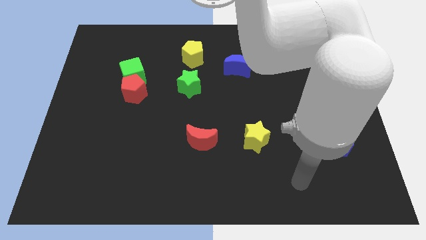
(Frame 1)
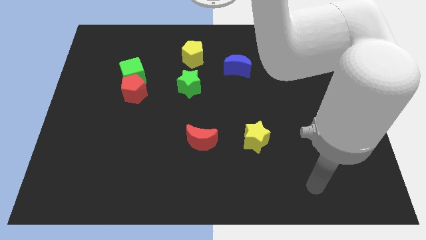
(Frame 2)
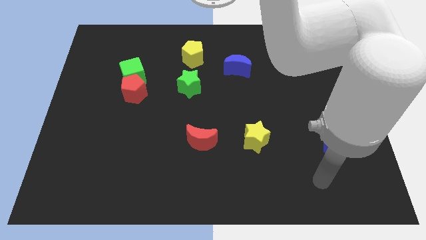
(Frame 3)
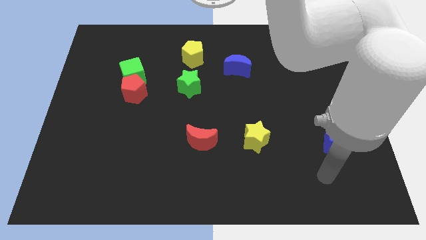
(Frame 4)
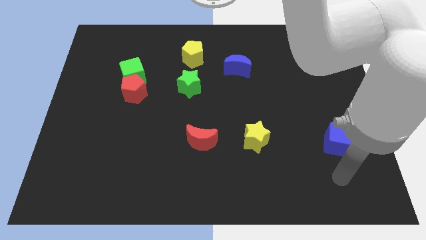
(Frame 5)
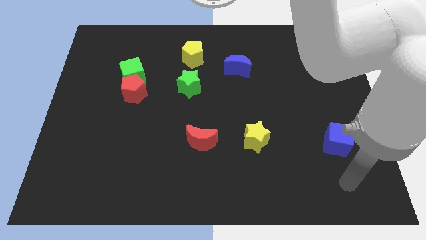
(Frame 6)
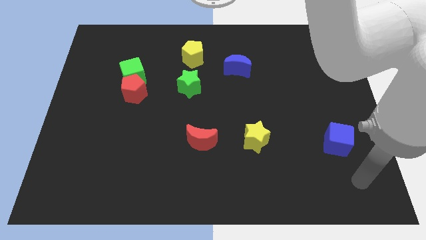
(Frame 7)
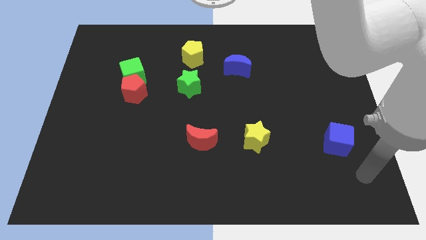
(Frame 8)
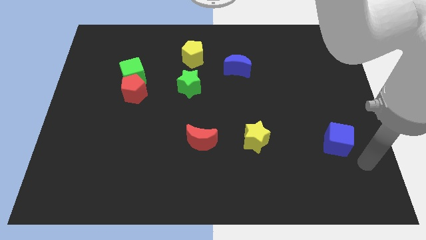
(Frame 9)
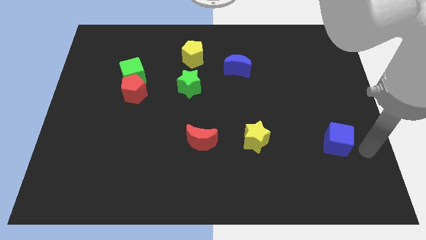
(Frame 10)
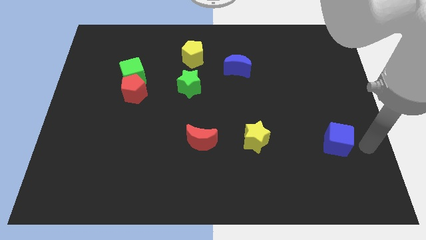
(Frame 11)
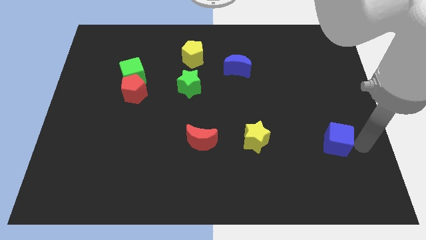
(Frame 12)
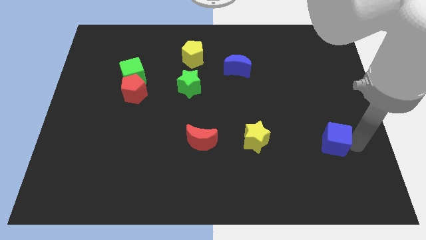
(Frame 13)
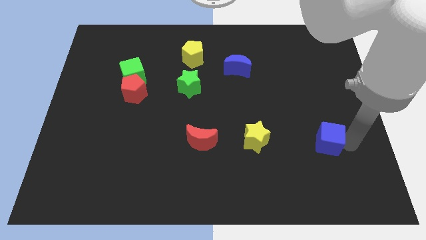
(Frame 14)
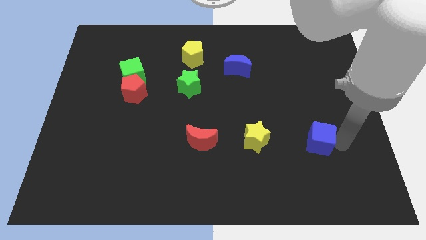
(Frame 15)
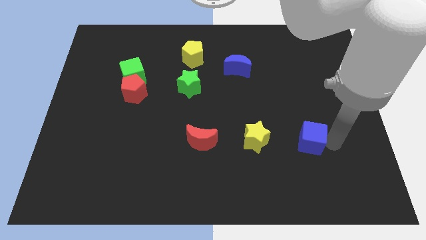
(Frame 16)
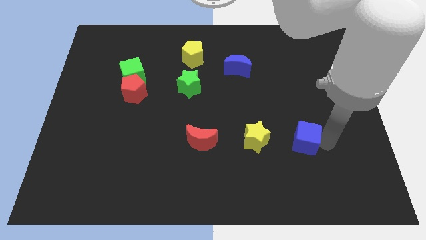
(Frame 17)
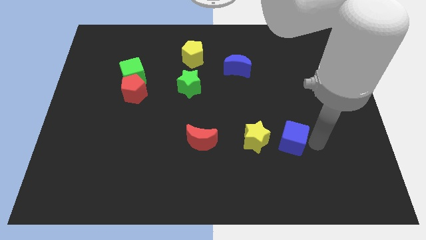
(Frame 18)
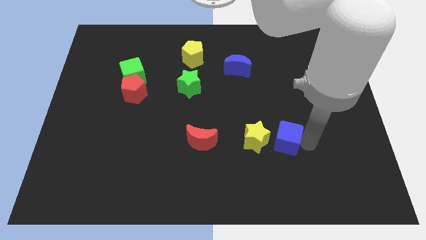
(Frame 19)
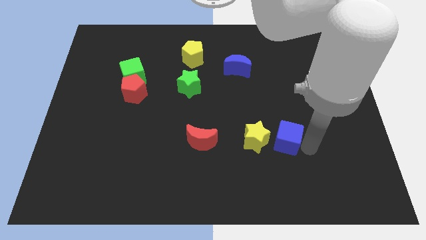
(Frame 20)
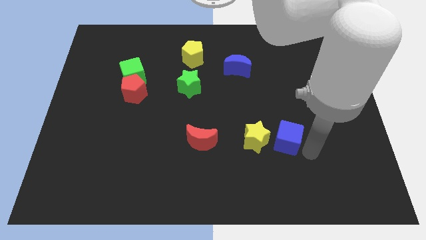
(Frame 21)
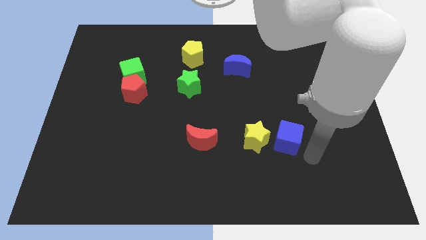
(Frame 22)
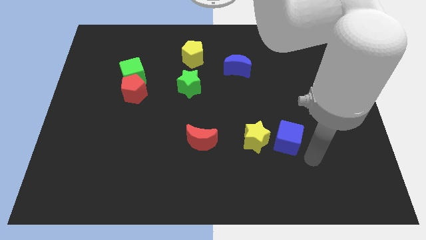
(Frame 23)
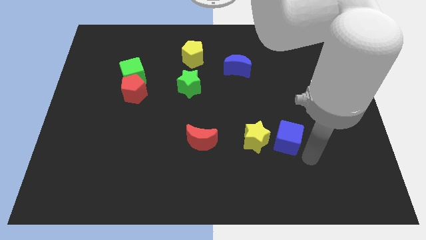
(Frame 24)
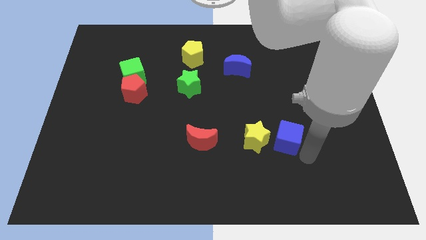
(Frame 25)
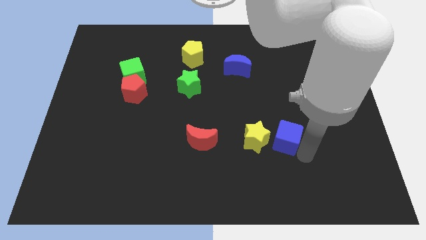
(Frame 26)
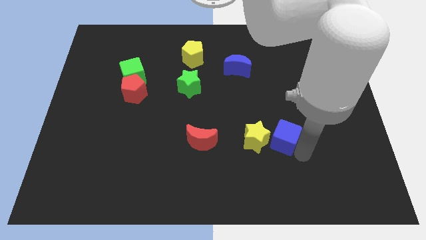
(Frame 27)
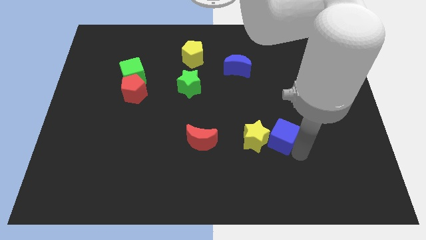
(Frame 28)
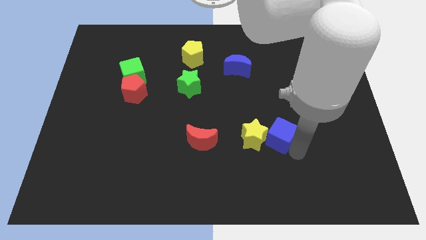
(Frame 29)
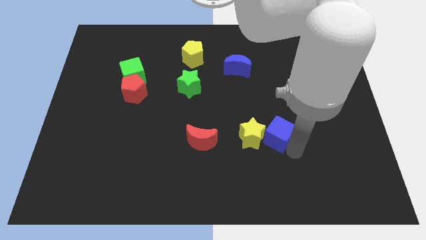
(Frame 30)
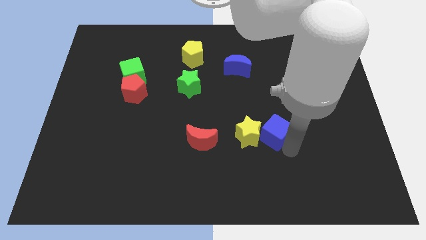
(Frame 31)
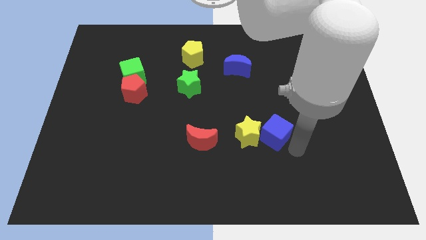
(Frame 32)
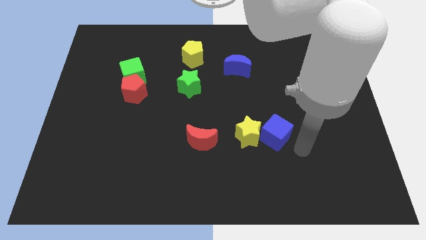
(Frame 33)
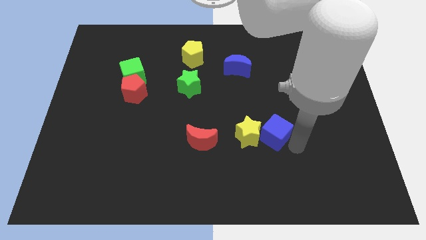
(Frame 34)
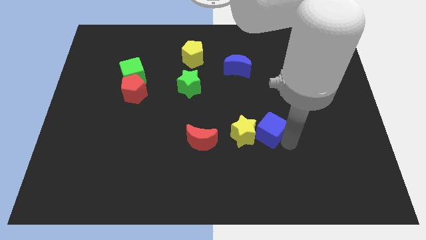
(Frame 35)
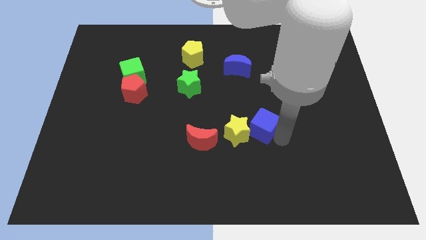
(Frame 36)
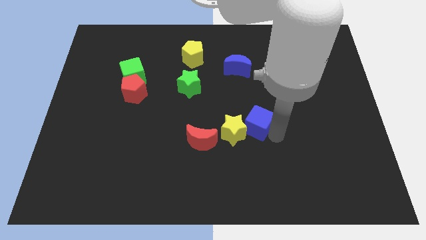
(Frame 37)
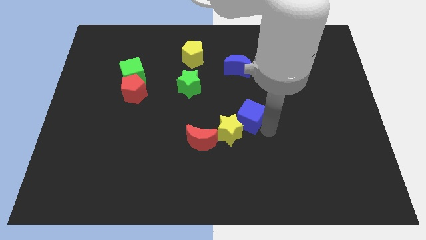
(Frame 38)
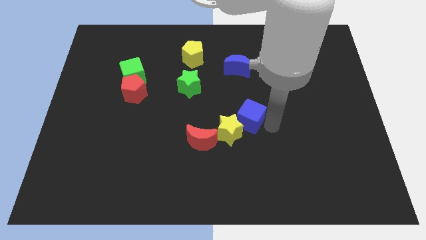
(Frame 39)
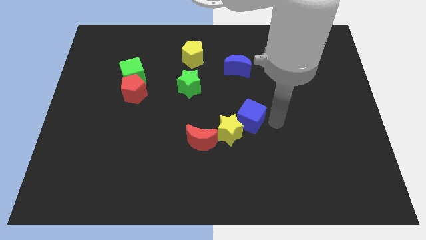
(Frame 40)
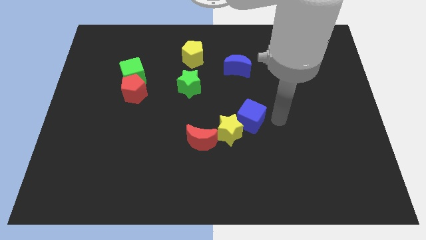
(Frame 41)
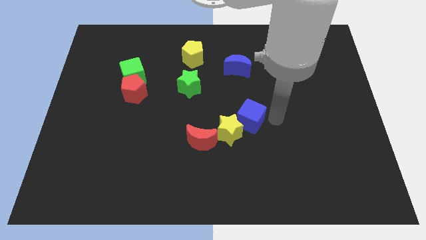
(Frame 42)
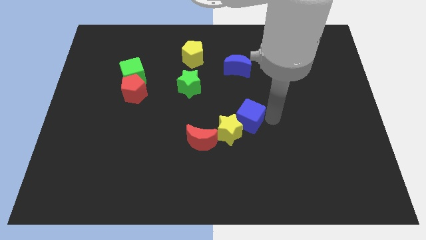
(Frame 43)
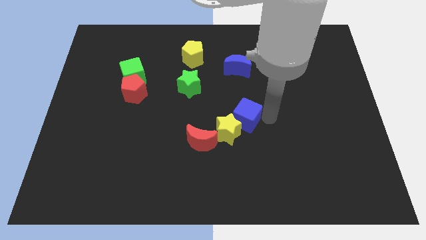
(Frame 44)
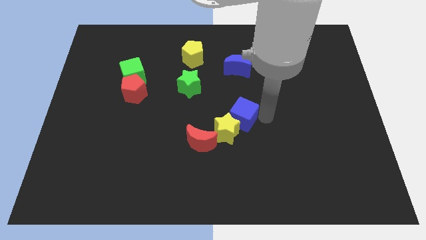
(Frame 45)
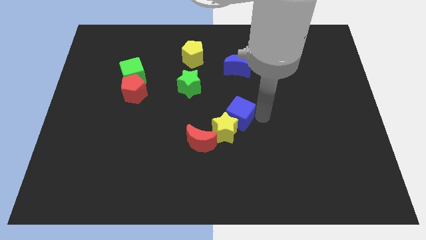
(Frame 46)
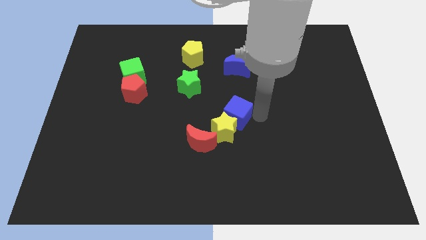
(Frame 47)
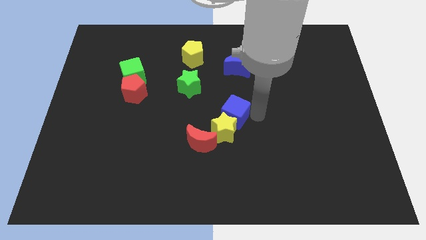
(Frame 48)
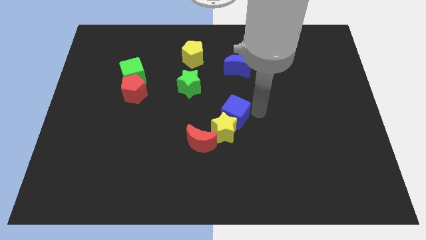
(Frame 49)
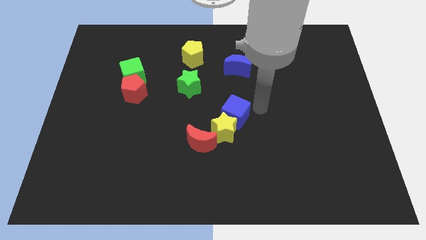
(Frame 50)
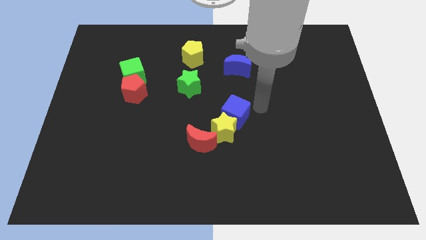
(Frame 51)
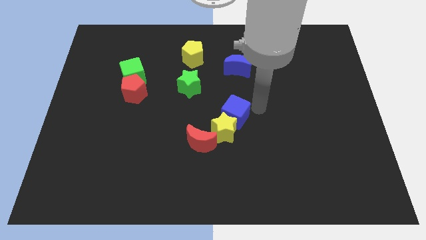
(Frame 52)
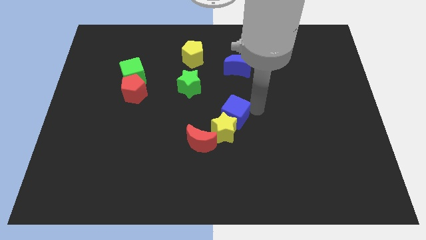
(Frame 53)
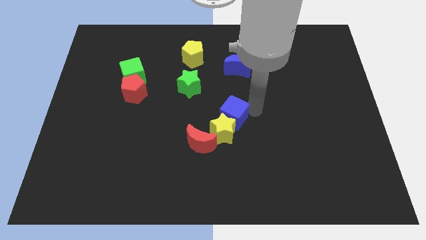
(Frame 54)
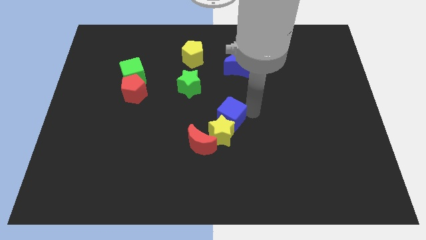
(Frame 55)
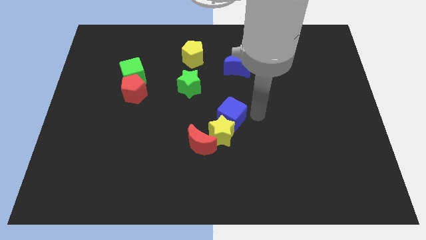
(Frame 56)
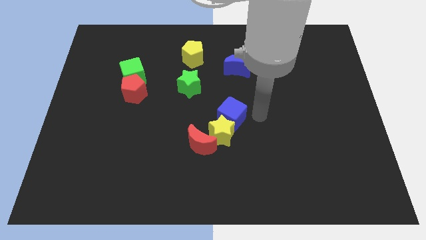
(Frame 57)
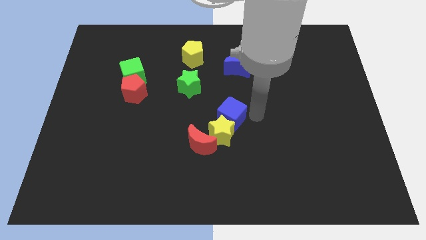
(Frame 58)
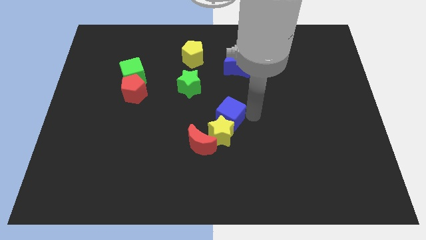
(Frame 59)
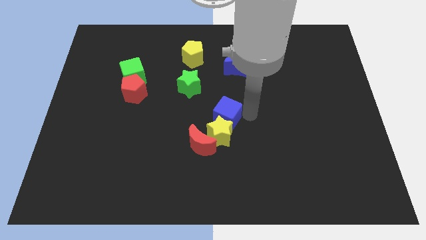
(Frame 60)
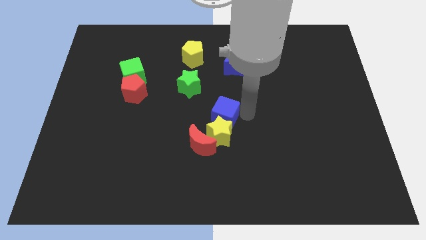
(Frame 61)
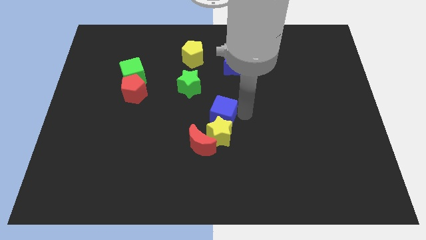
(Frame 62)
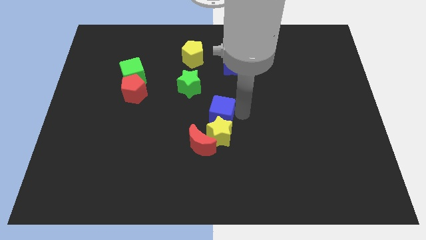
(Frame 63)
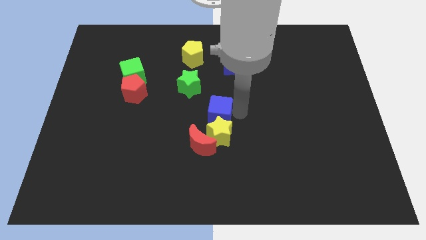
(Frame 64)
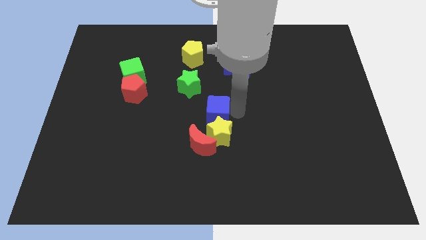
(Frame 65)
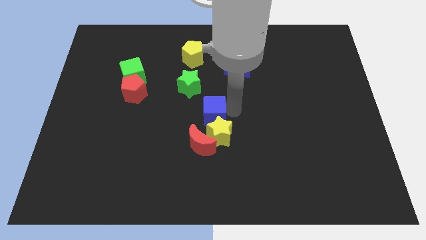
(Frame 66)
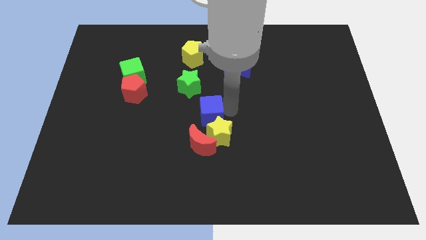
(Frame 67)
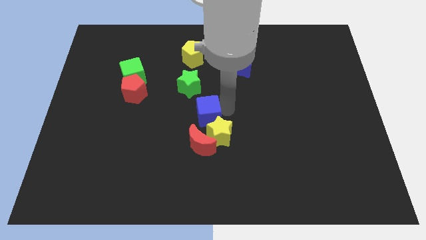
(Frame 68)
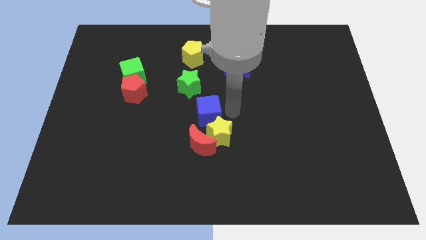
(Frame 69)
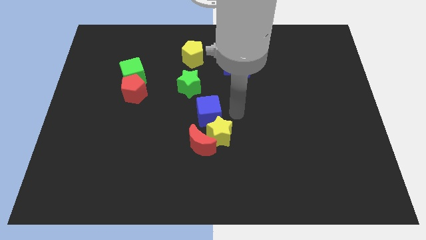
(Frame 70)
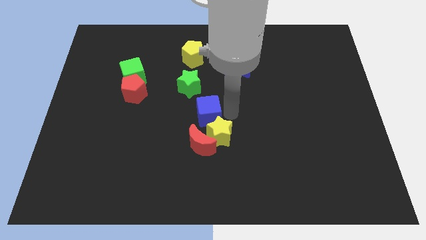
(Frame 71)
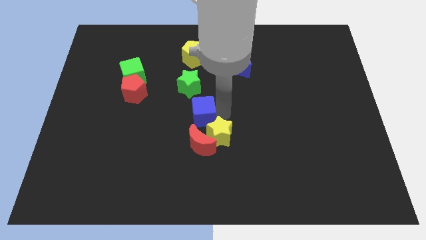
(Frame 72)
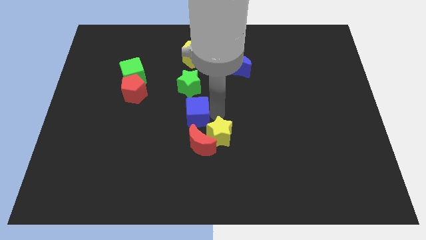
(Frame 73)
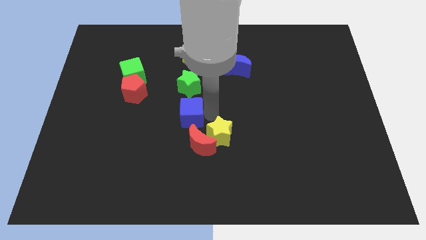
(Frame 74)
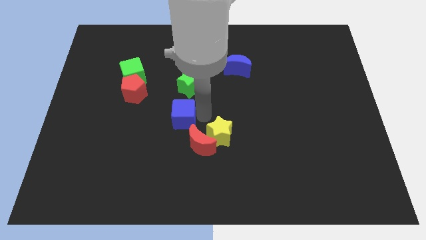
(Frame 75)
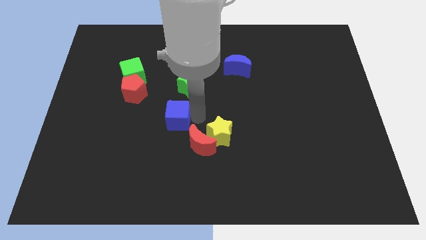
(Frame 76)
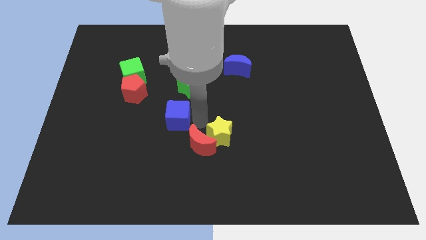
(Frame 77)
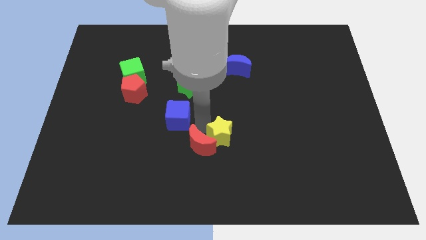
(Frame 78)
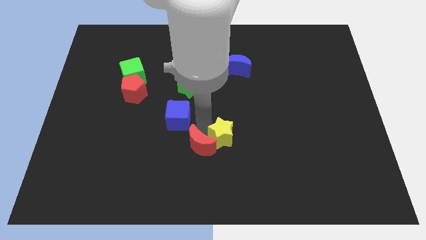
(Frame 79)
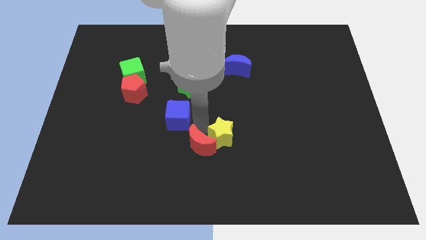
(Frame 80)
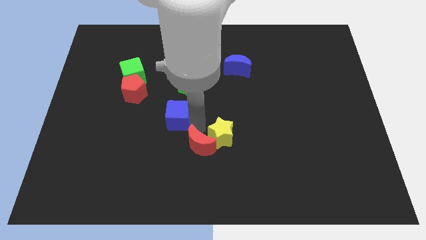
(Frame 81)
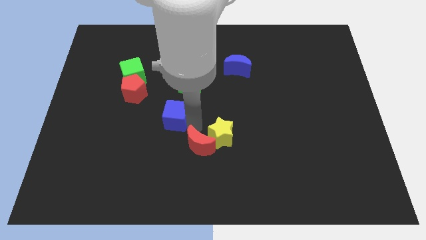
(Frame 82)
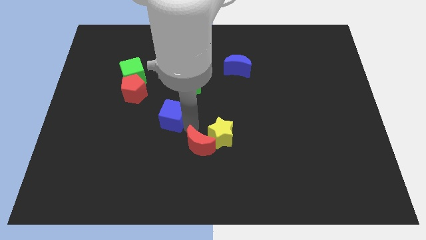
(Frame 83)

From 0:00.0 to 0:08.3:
put the blue cube diagonally down and to the right of the red pentagon
